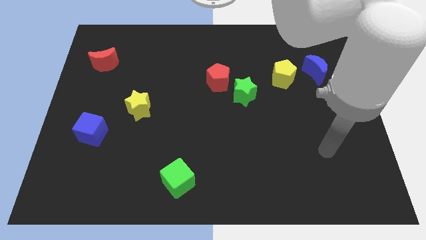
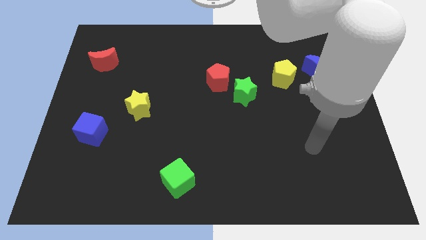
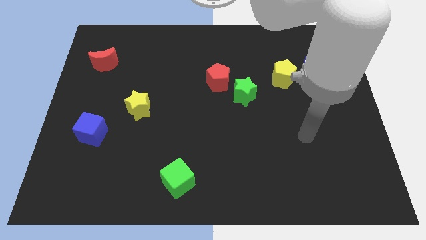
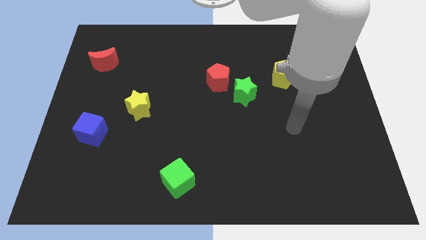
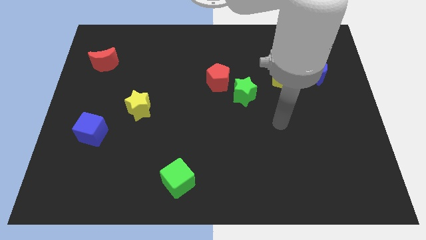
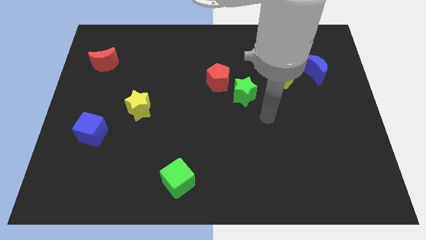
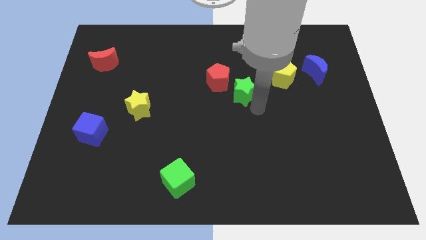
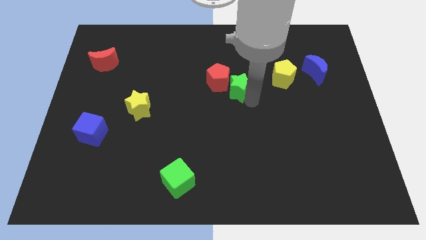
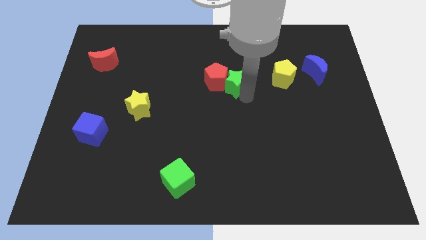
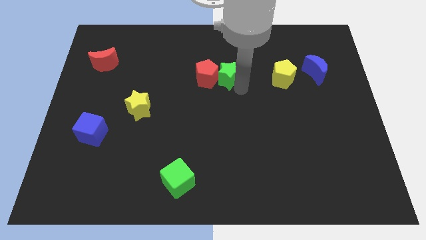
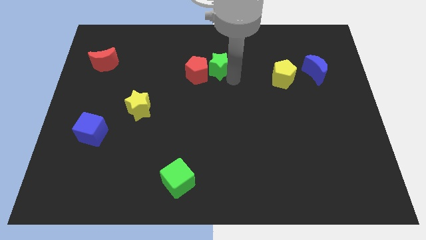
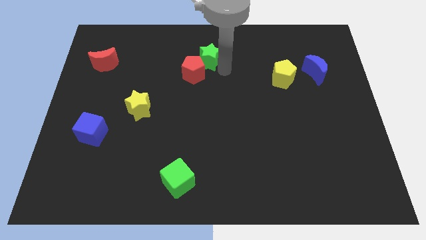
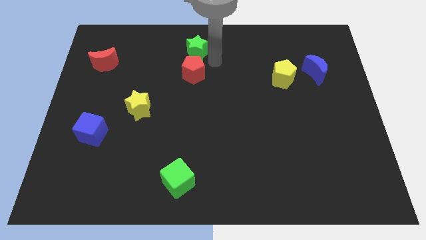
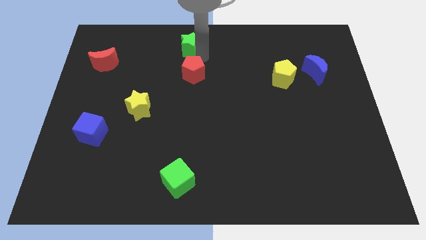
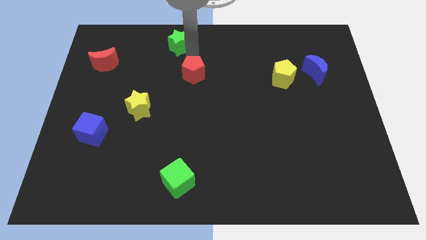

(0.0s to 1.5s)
move the red pentagon away from the green star

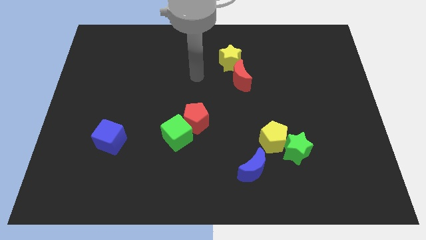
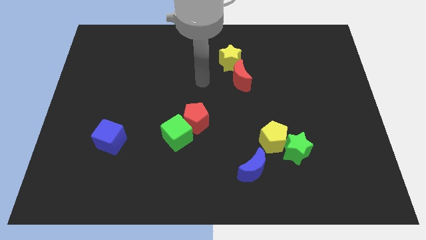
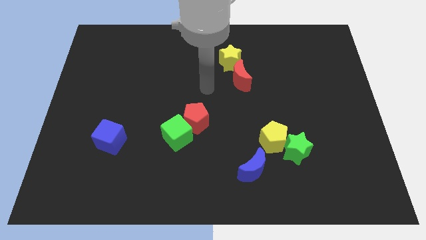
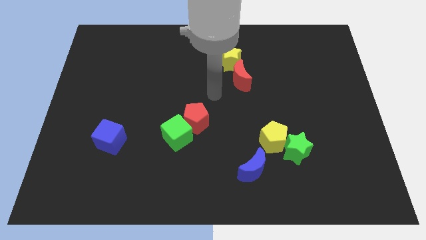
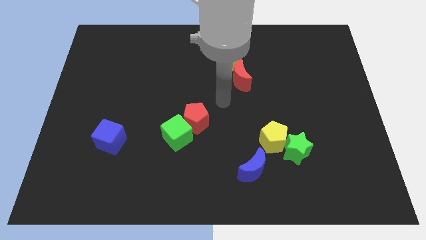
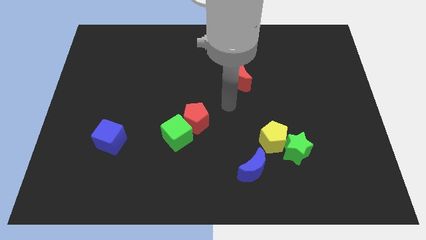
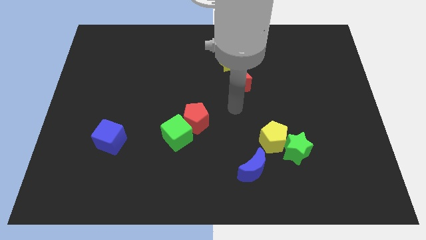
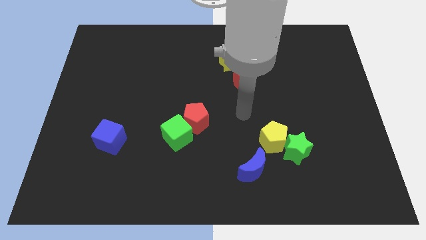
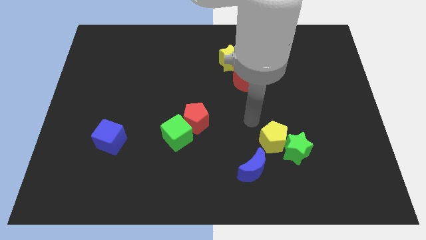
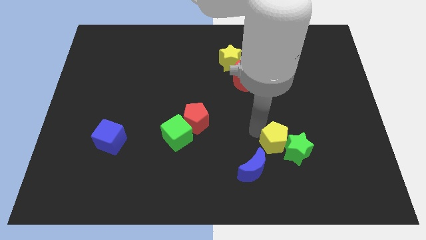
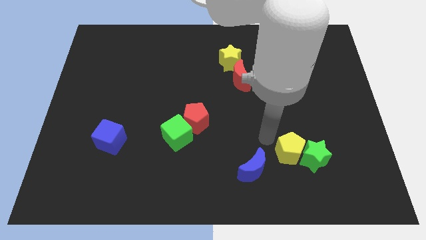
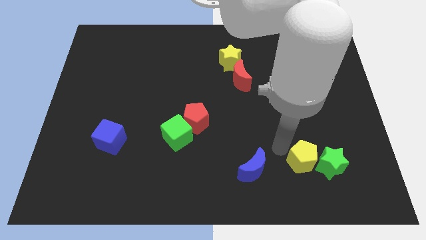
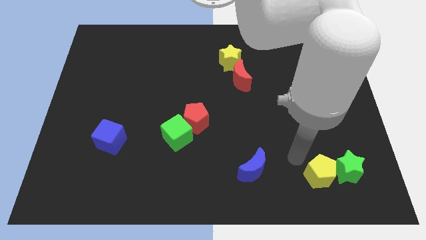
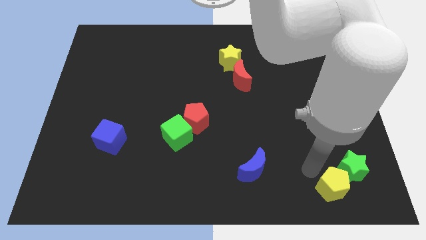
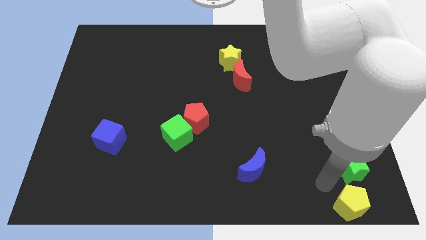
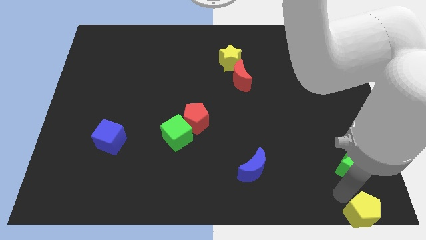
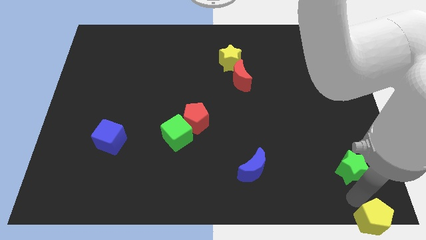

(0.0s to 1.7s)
move the green star away from the yellow pentagon

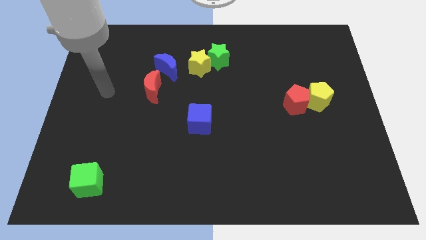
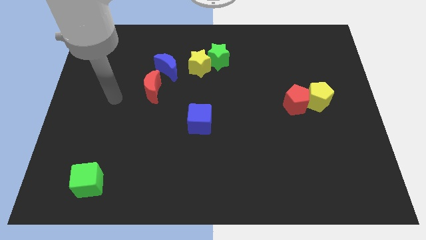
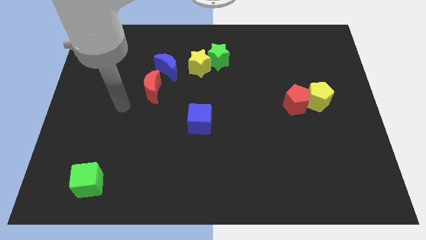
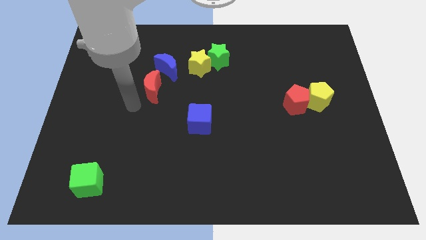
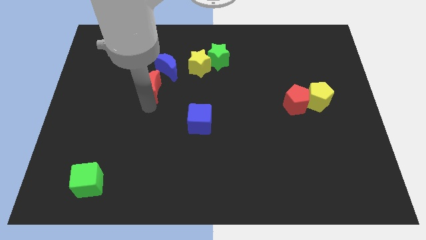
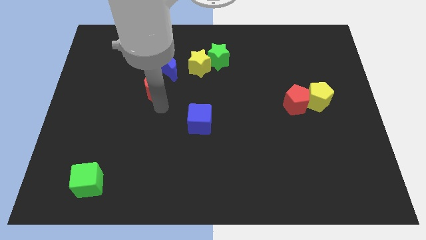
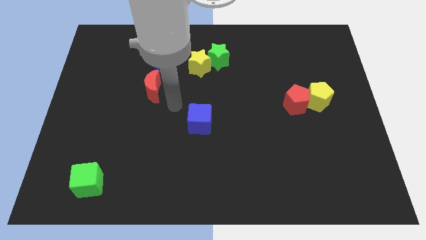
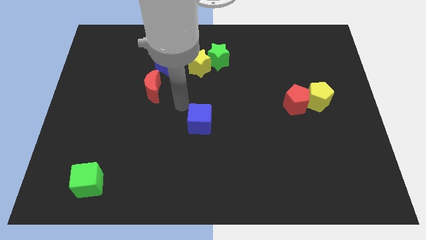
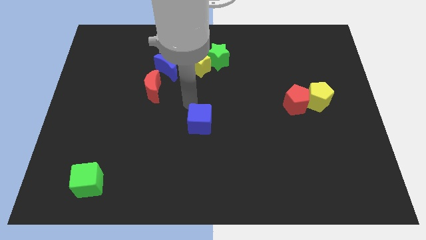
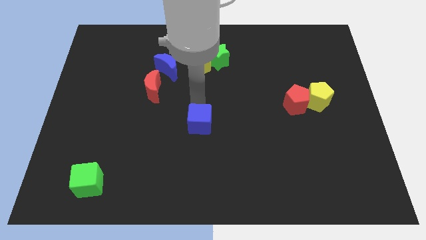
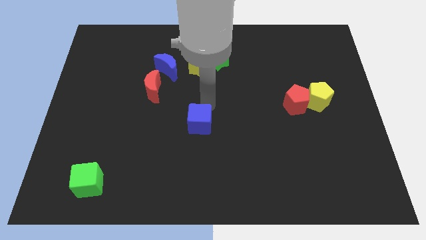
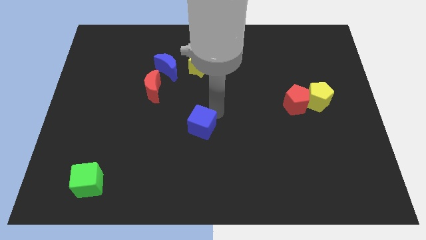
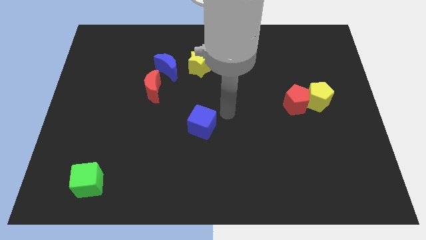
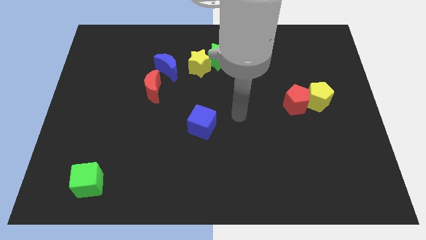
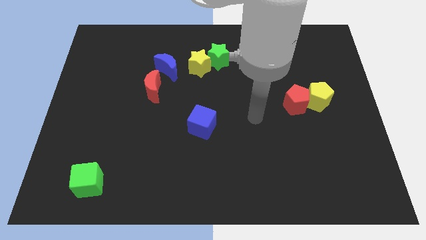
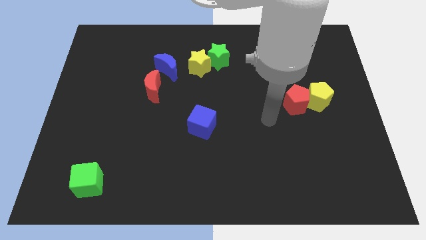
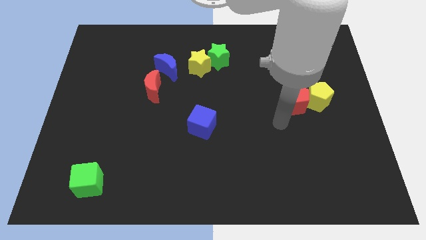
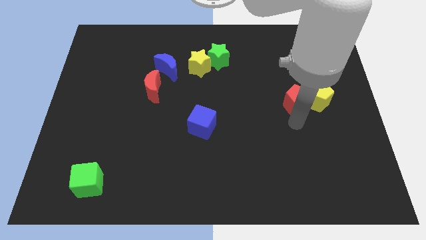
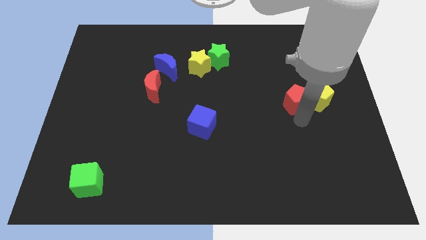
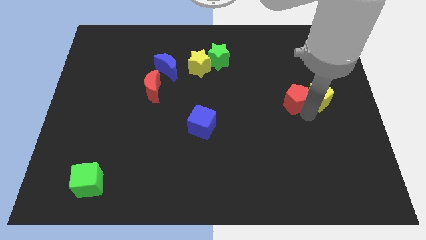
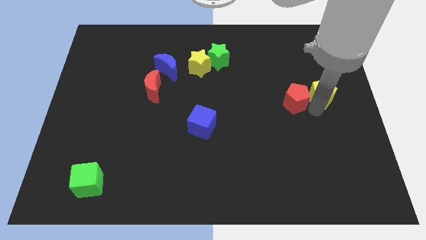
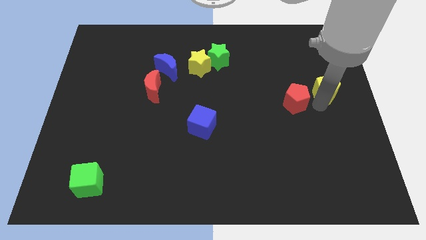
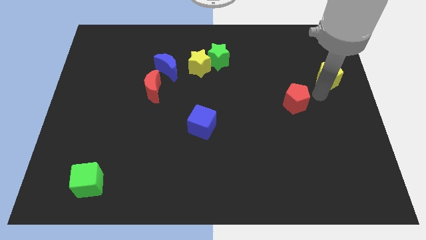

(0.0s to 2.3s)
pull the red pentagon apart from the yellow pentagon

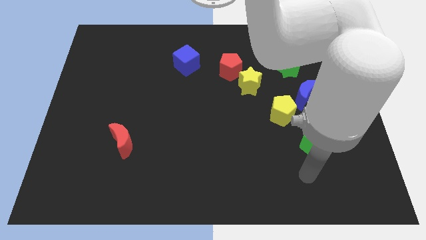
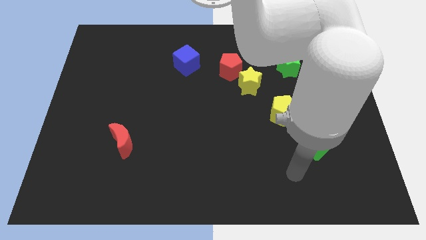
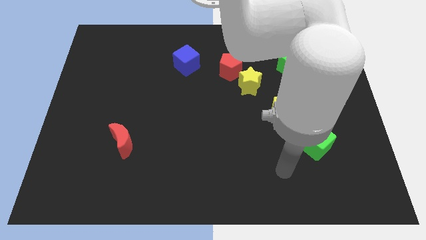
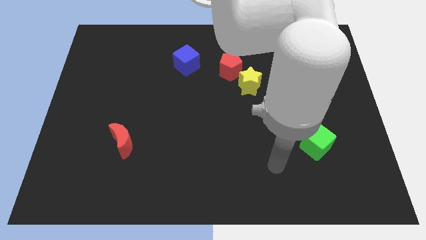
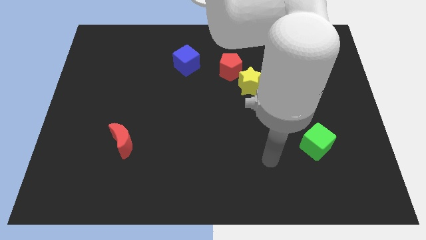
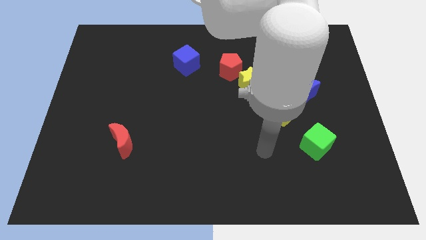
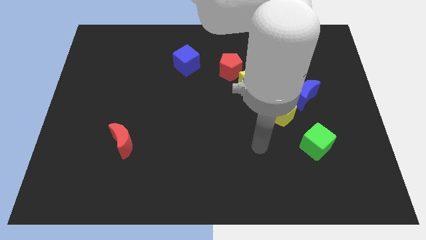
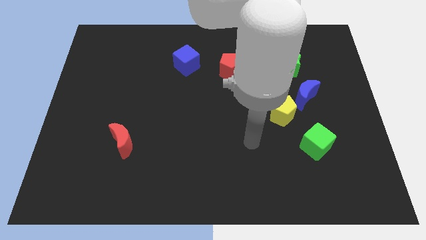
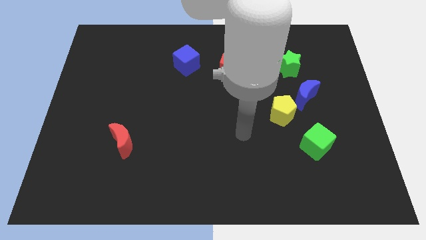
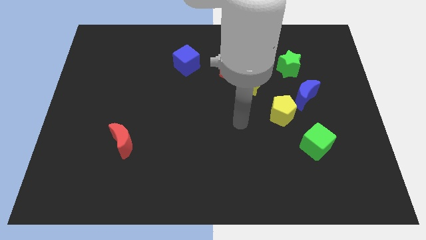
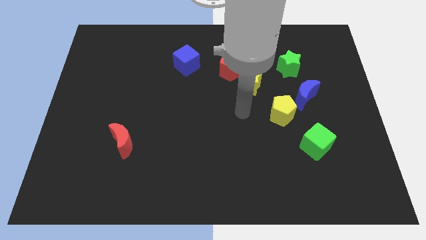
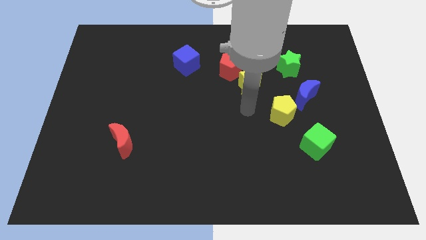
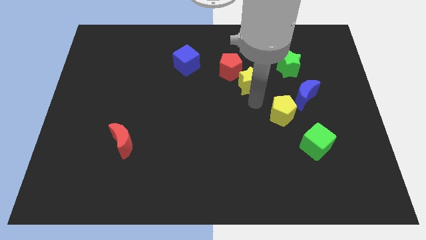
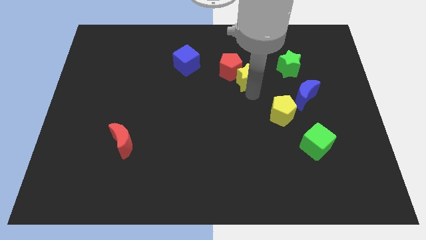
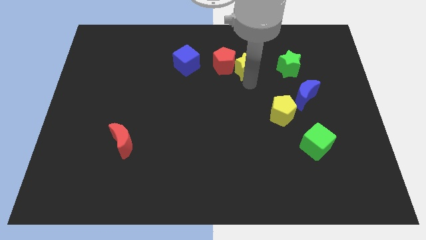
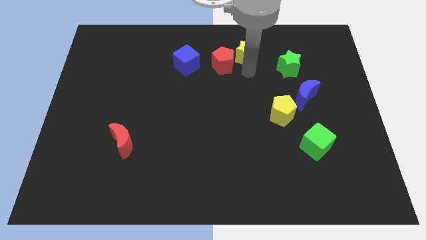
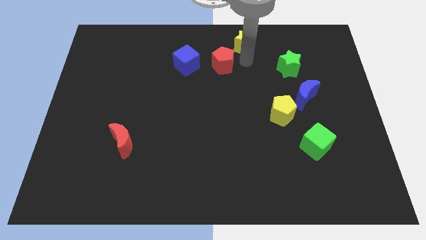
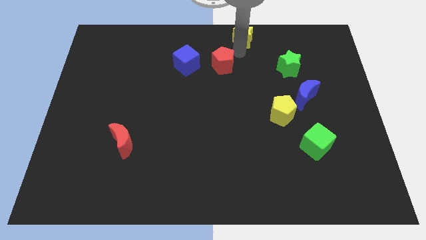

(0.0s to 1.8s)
move the red pentagon away from the yellow star

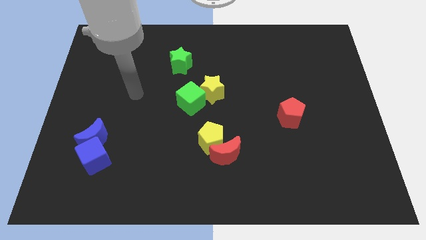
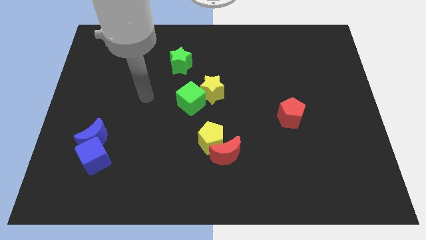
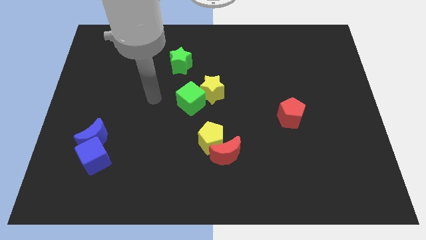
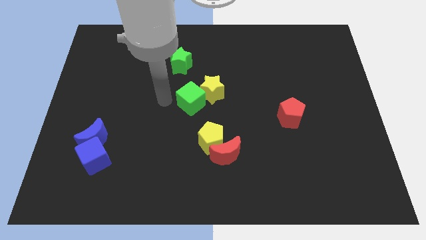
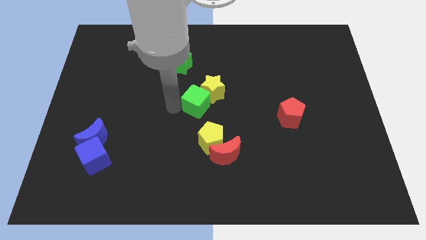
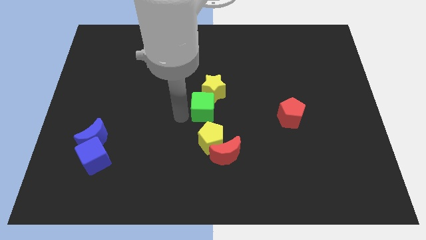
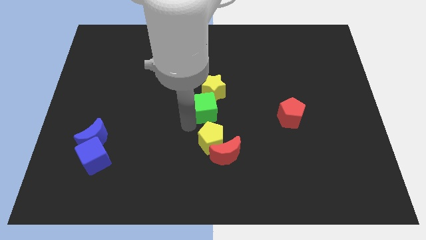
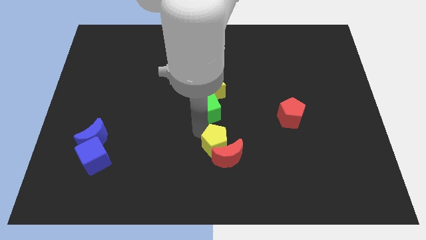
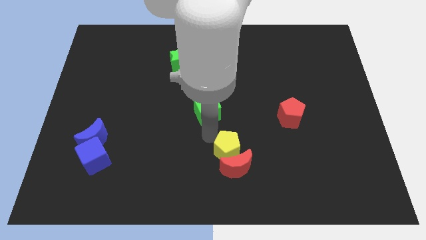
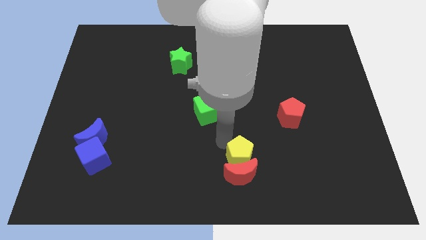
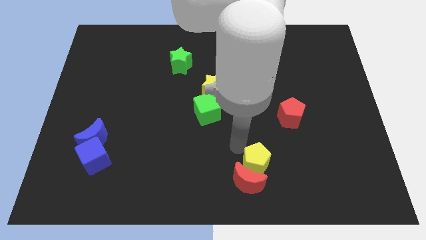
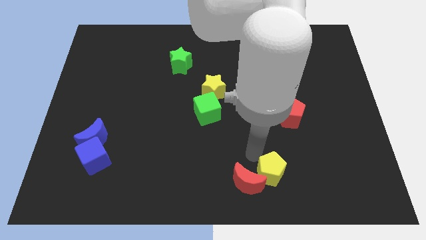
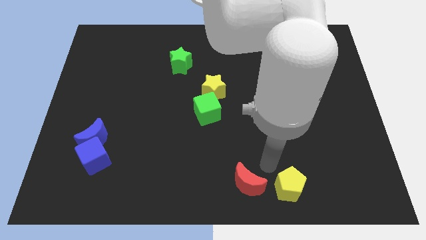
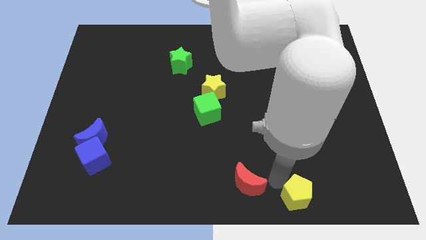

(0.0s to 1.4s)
move the red moon away from the yellow pentagon

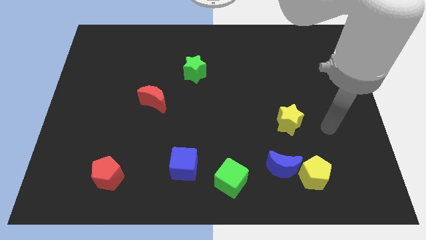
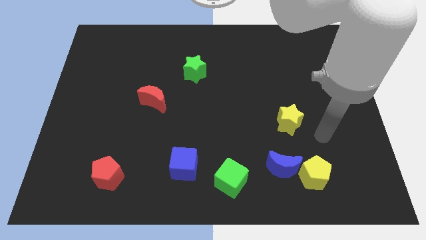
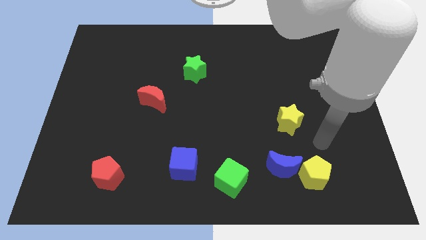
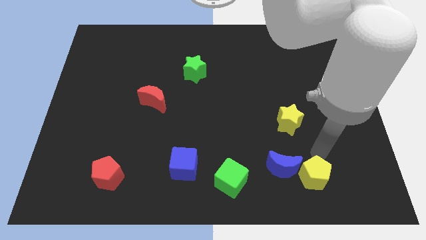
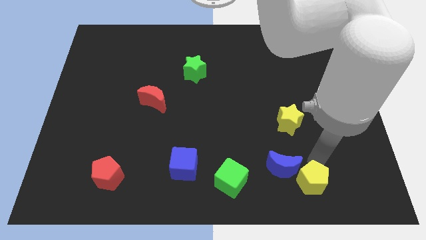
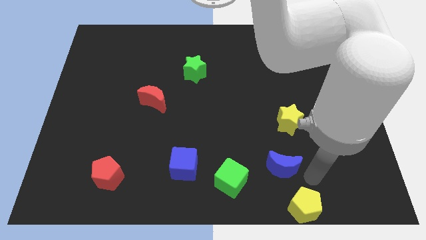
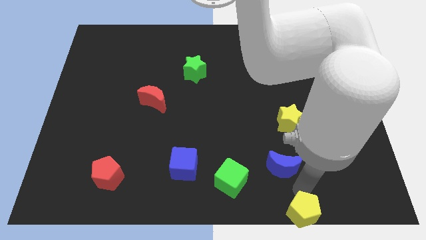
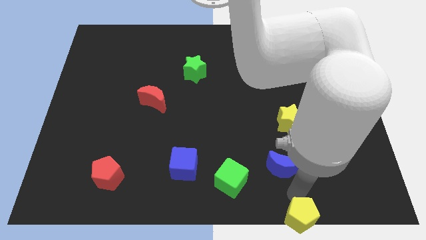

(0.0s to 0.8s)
move the blue moon away from the yellow pentagon
